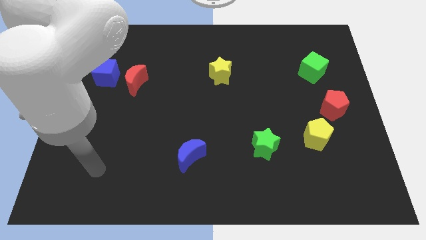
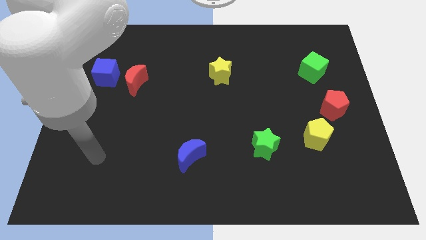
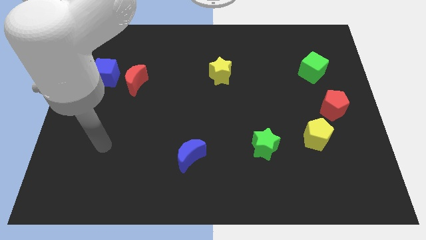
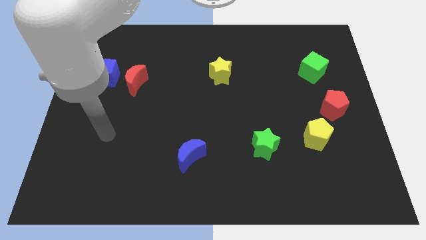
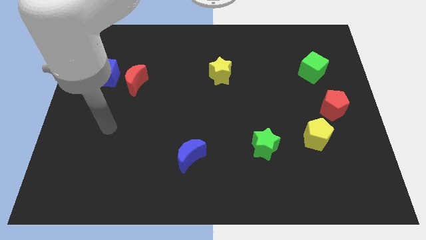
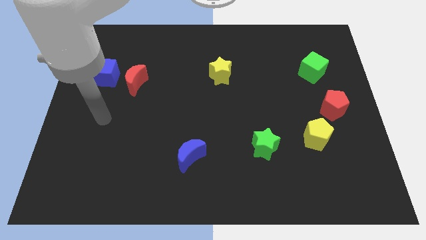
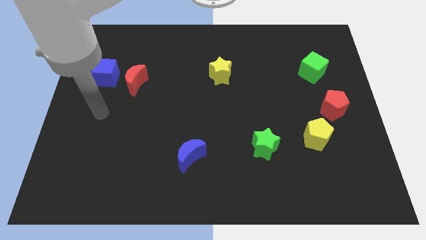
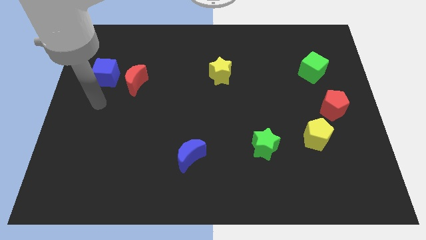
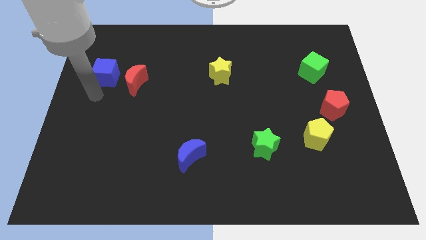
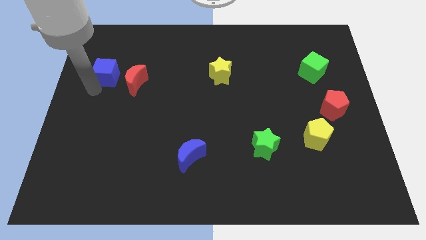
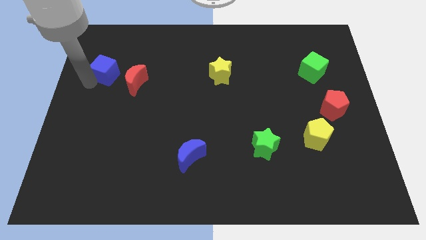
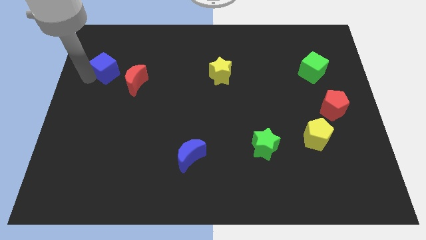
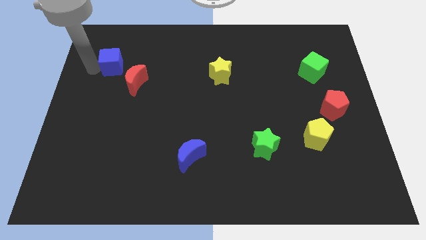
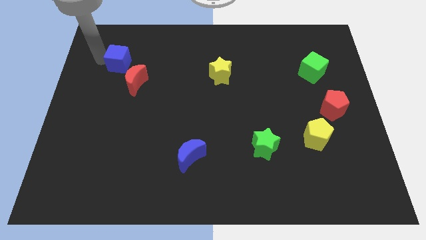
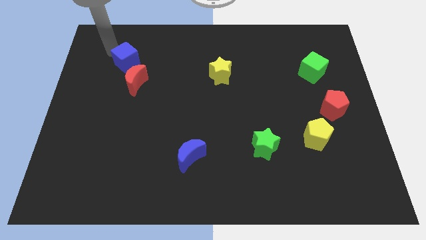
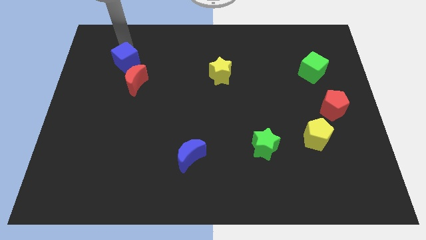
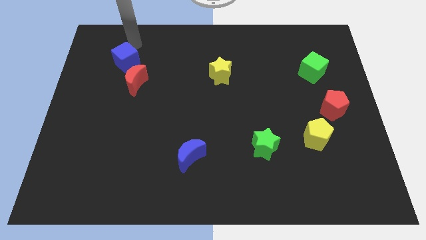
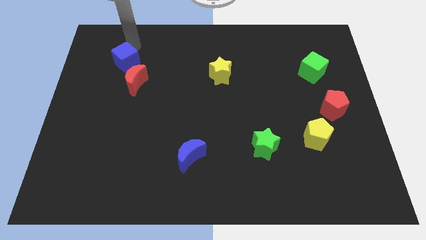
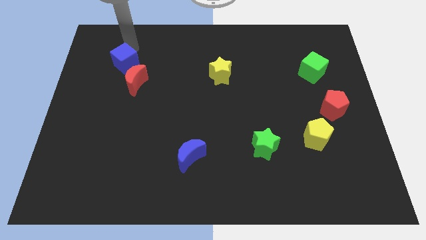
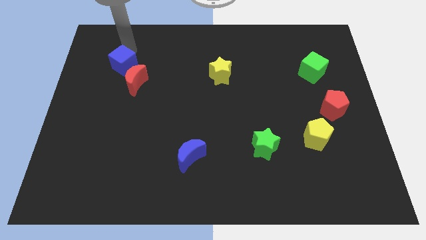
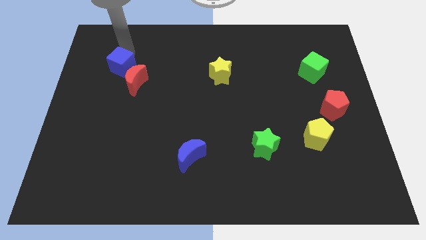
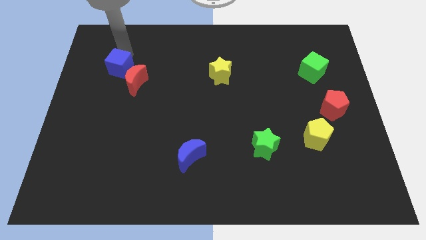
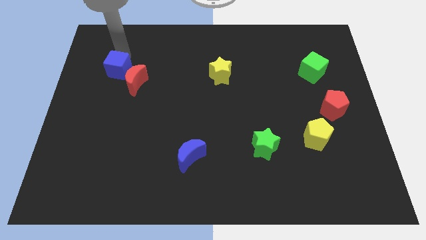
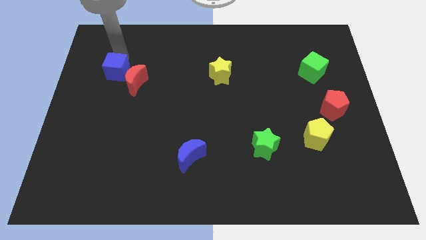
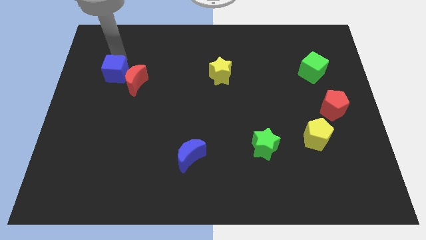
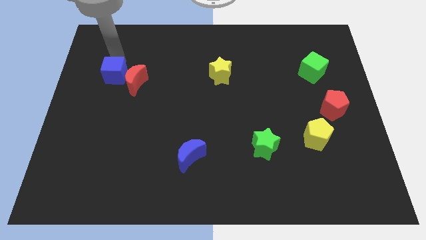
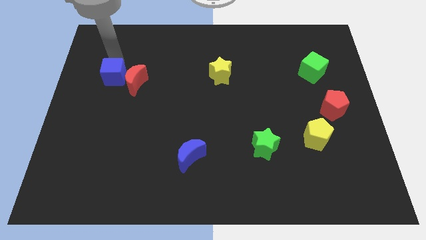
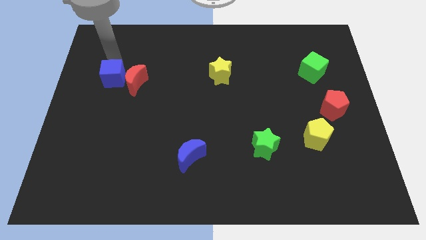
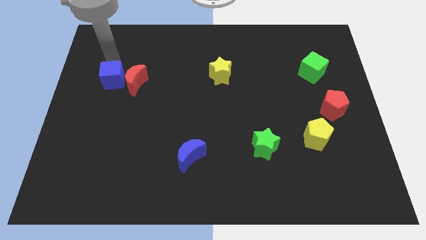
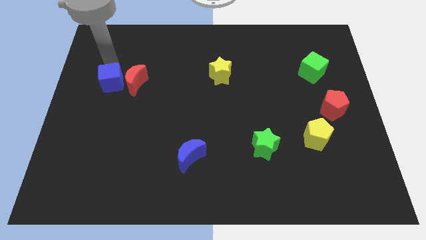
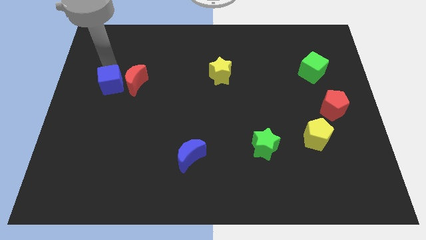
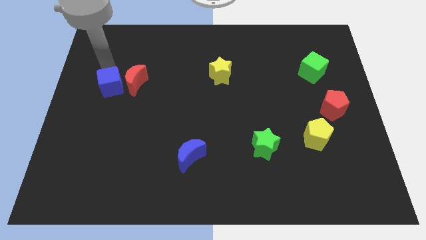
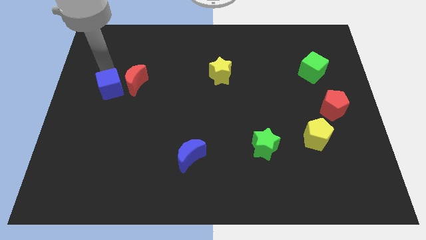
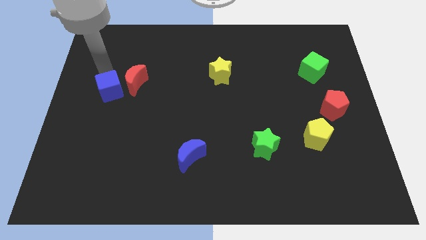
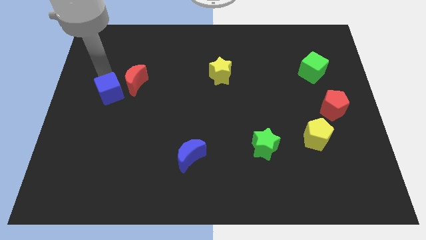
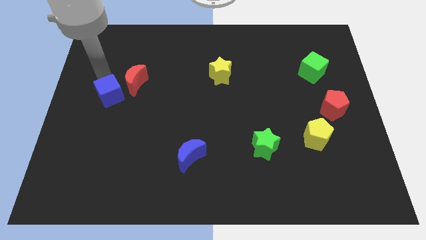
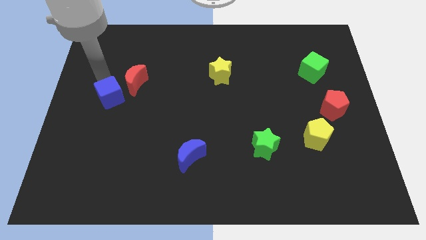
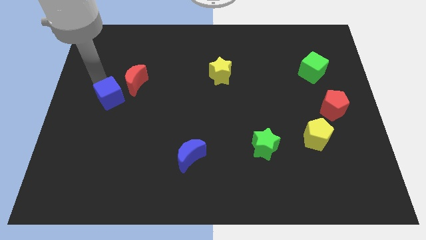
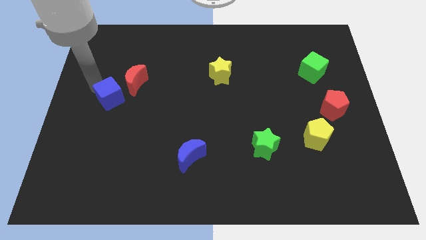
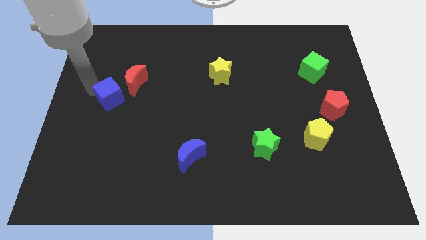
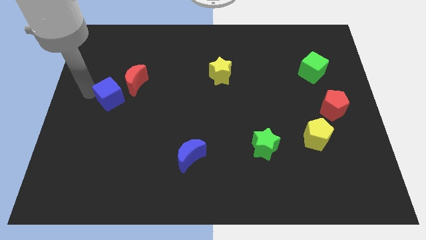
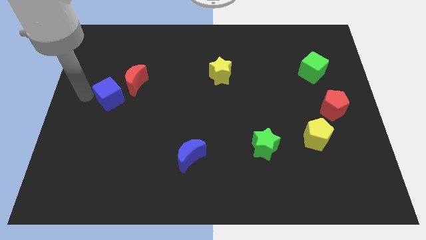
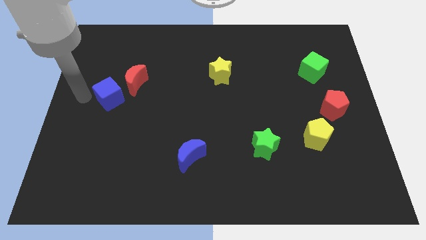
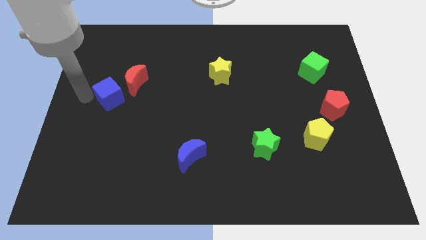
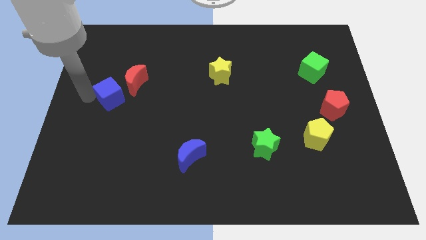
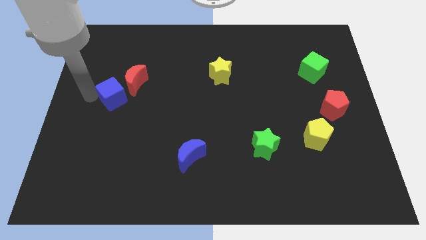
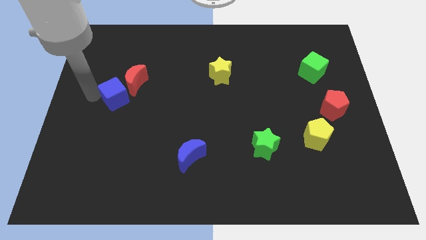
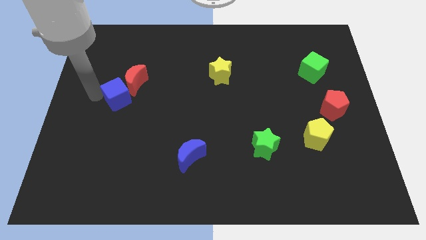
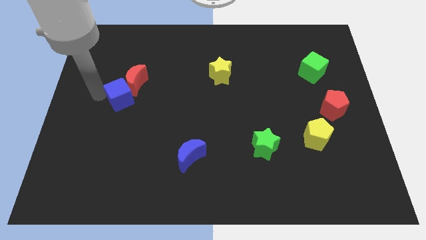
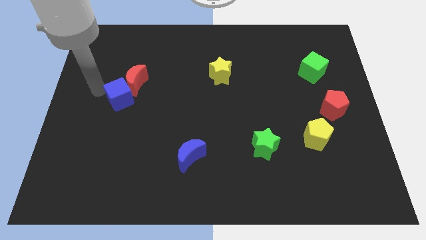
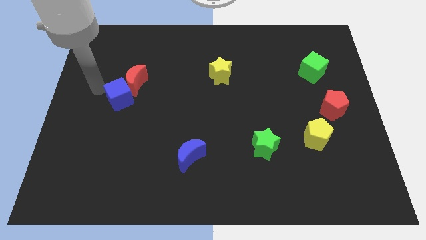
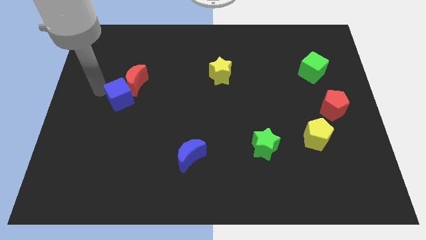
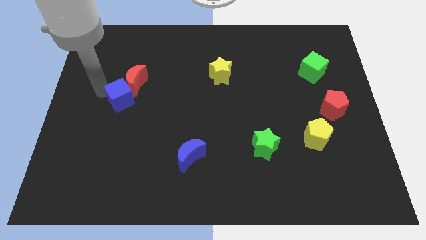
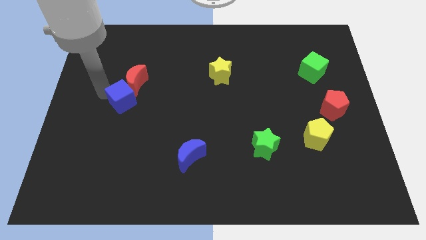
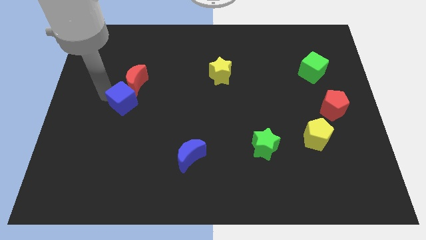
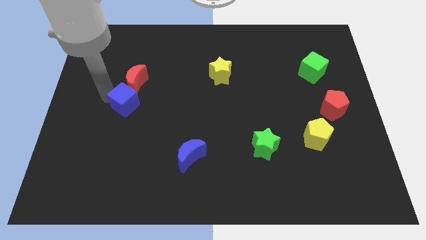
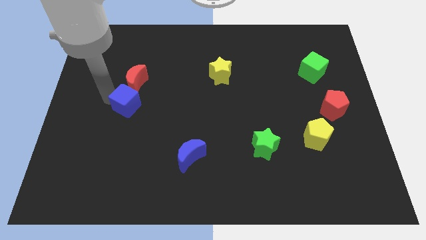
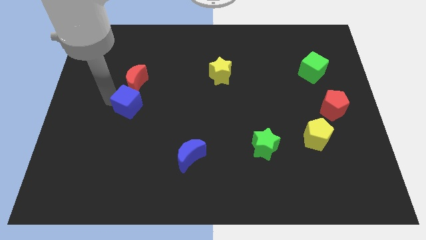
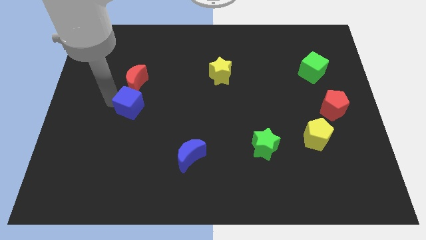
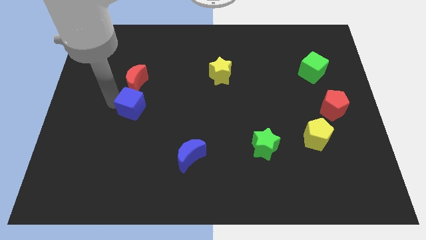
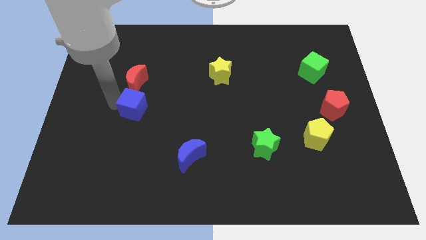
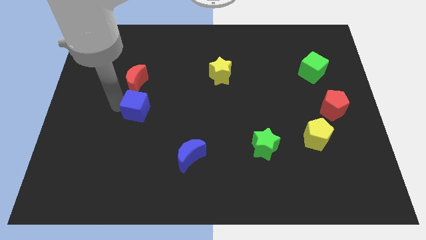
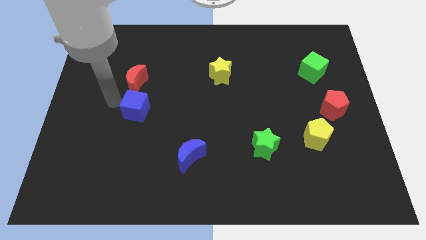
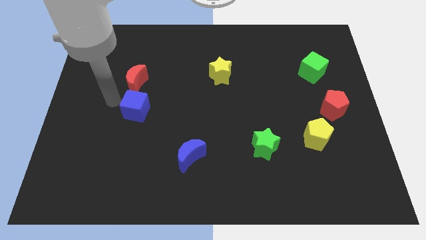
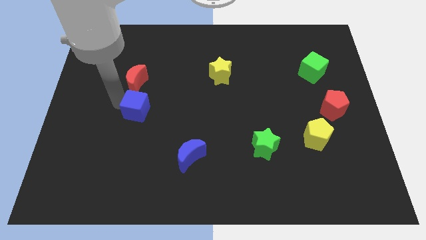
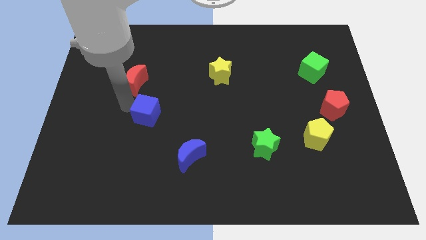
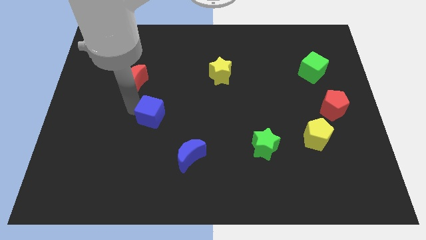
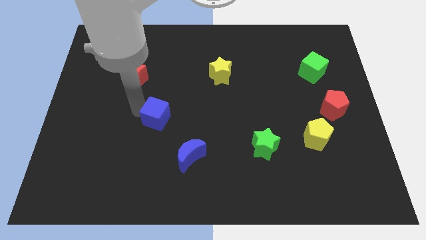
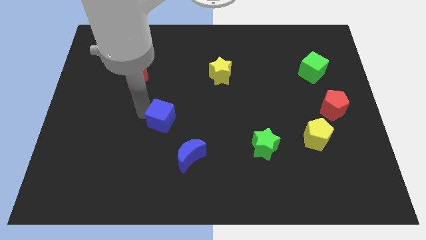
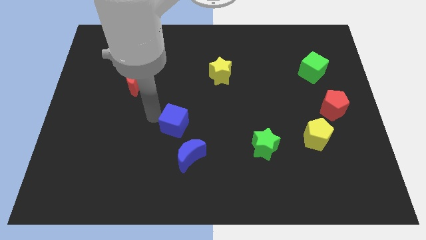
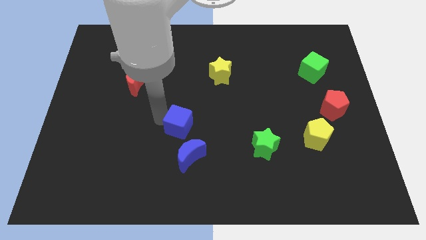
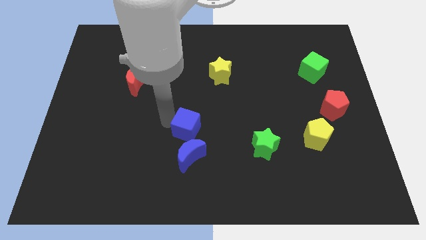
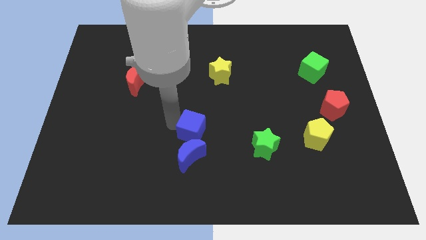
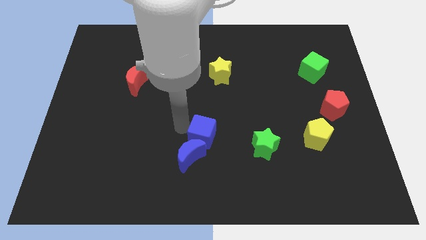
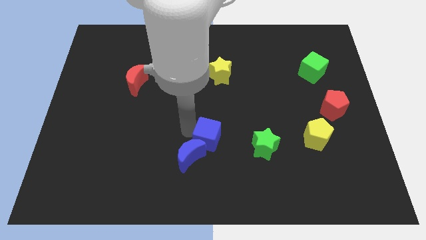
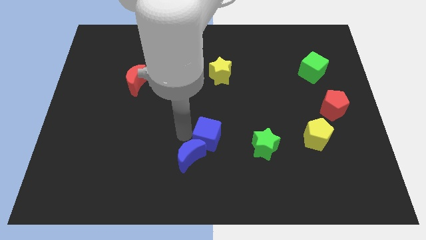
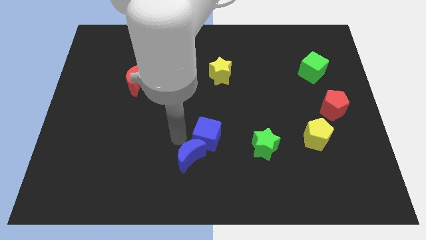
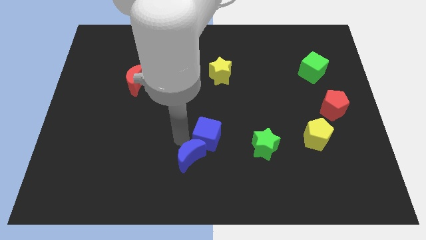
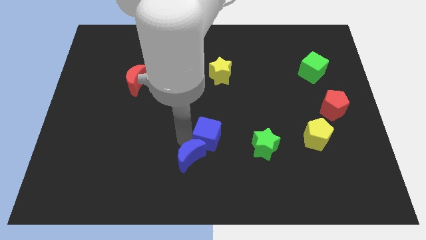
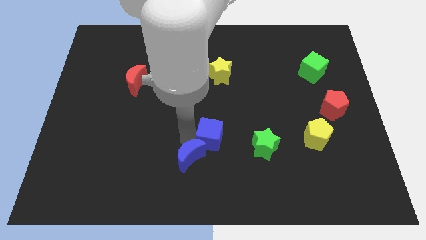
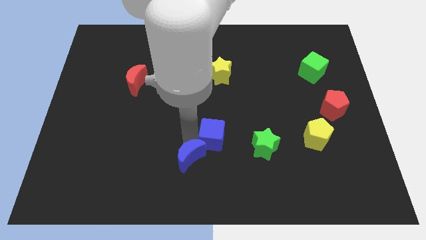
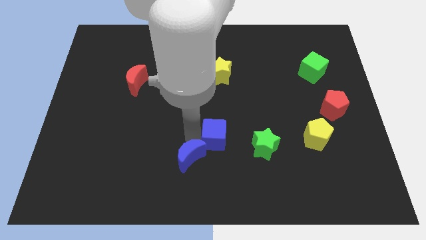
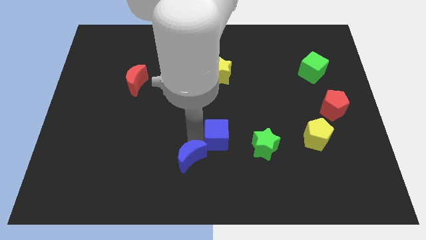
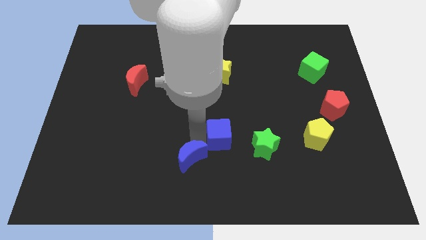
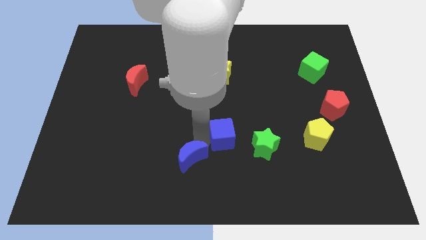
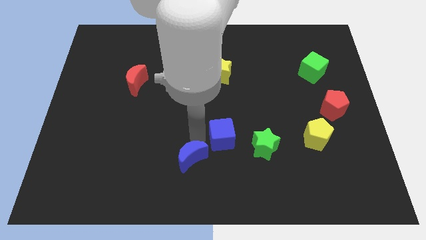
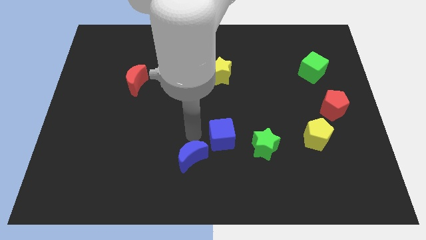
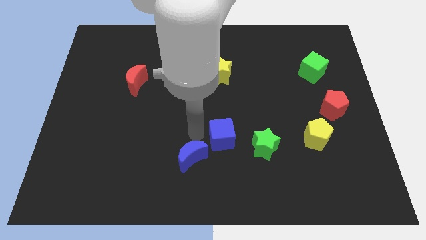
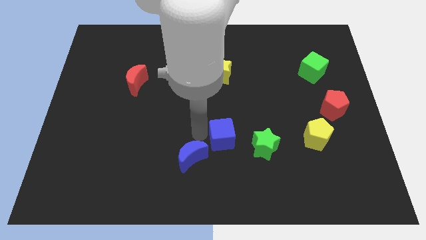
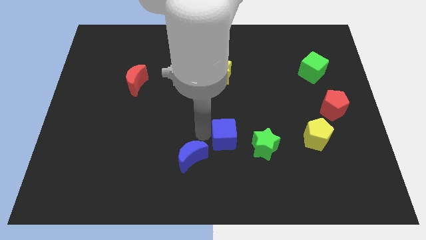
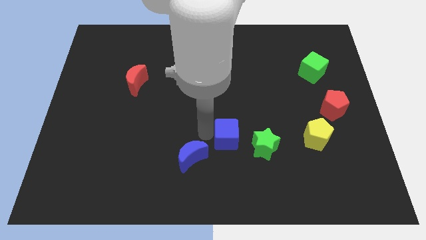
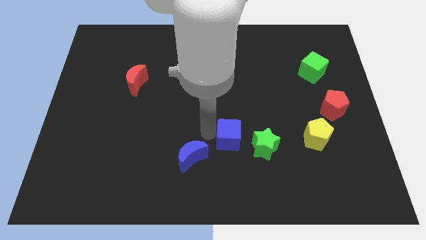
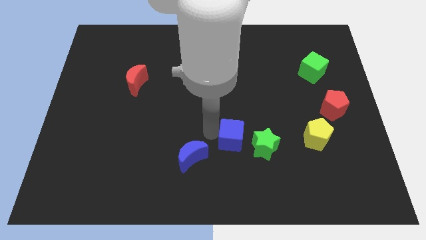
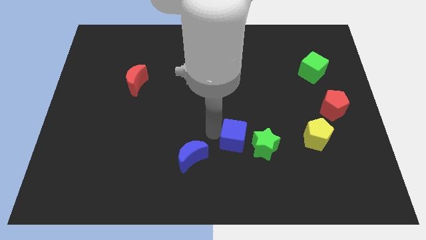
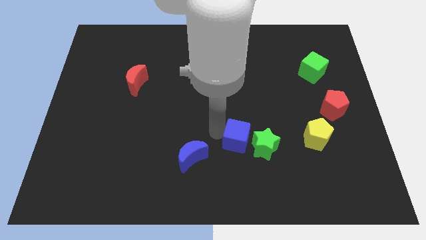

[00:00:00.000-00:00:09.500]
push the blue cube to the green star
